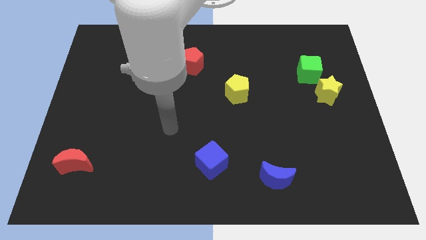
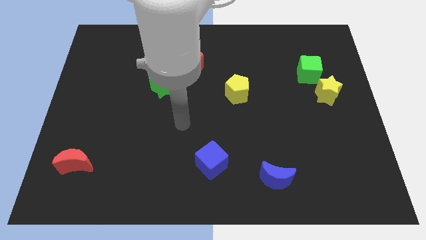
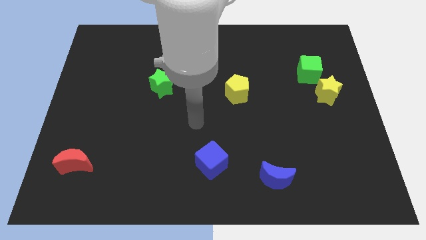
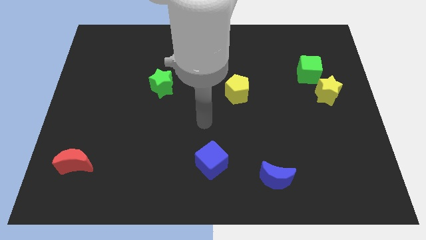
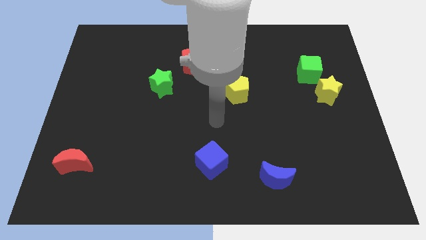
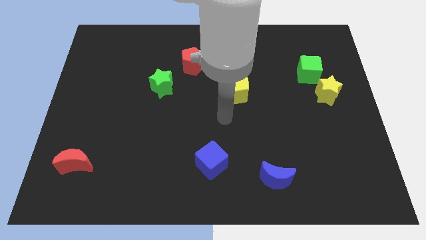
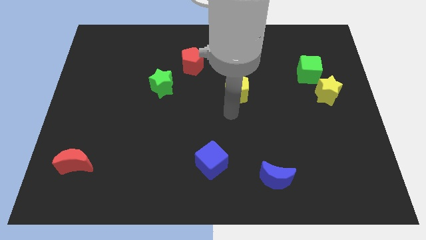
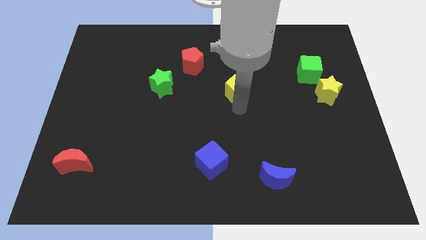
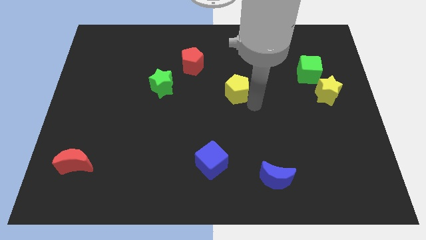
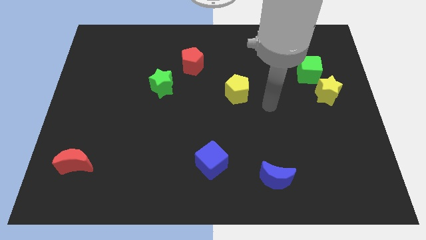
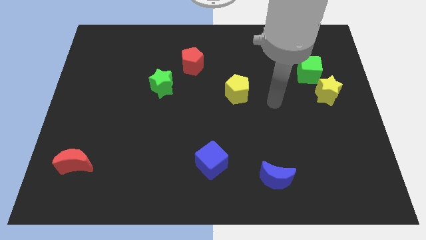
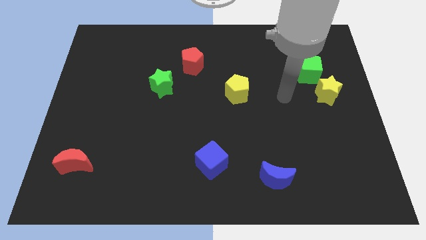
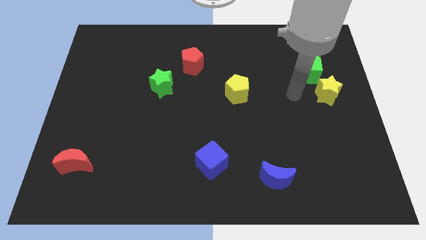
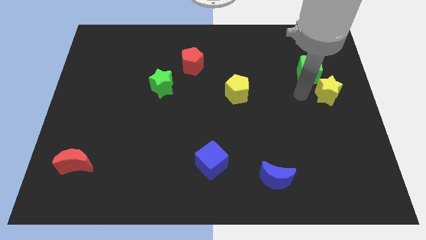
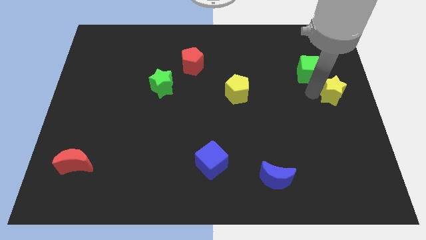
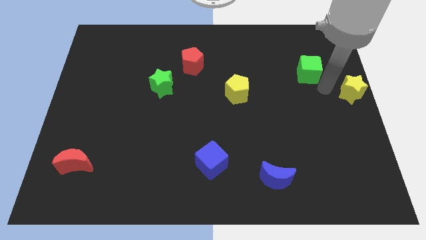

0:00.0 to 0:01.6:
move the green cube away from the yellow star

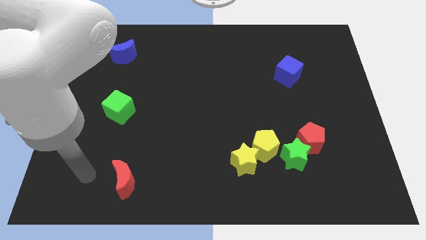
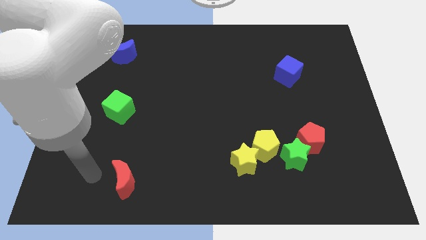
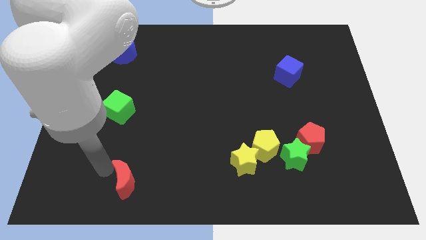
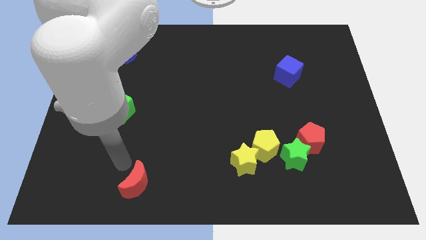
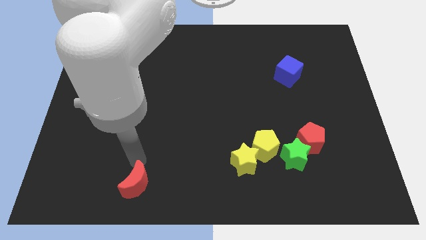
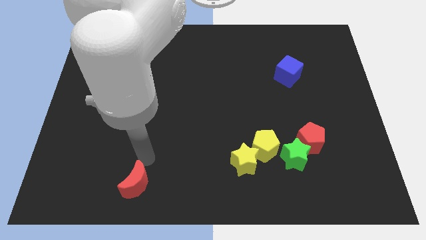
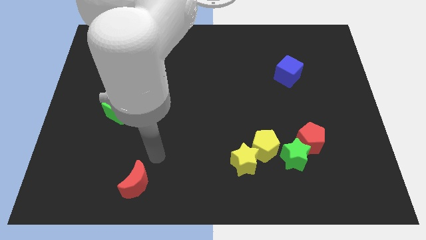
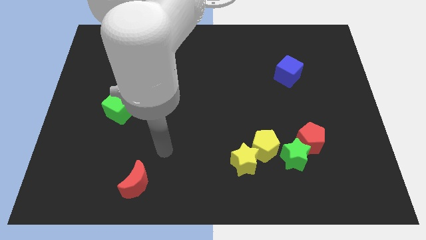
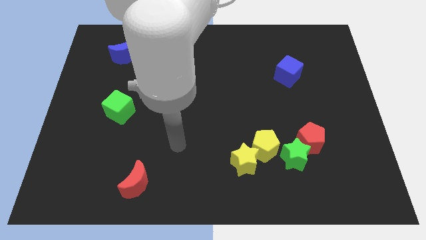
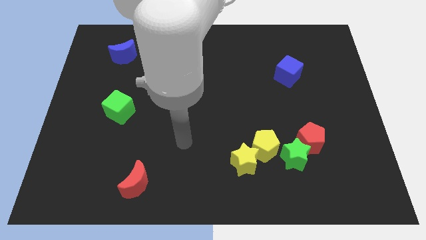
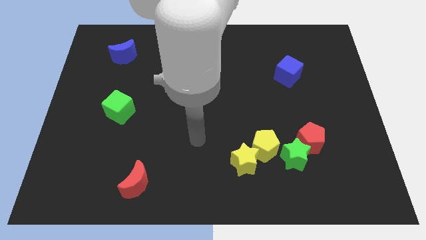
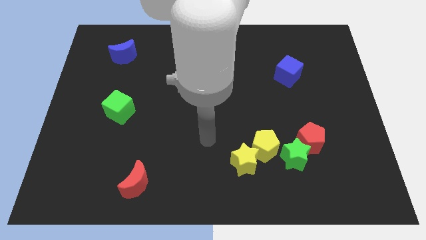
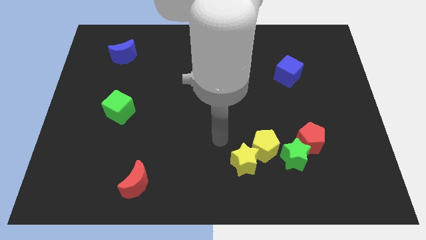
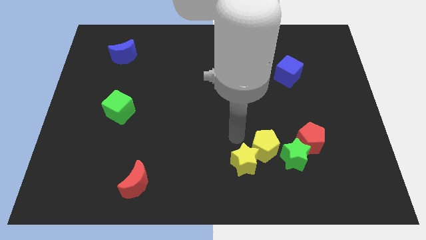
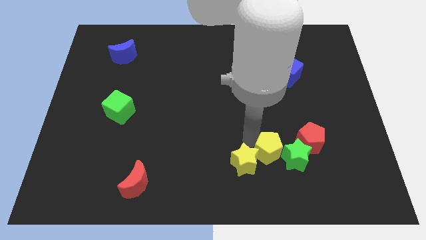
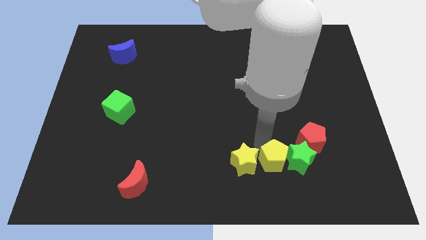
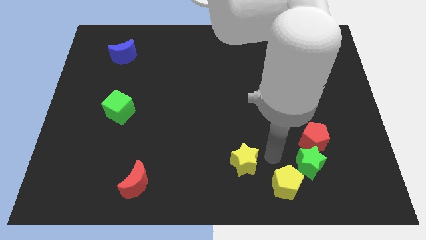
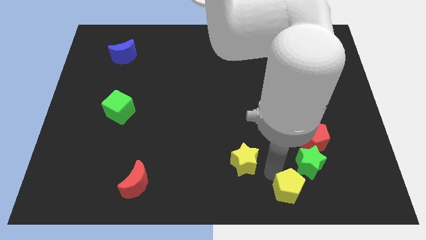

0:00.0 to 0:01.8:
move the yellow star away from the yellow pentagon

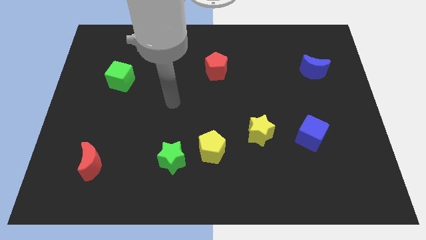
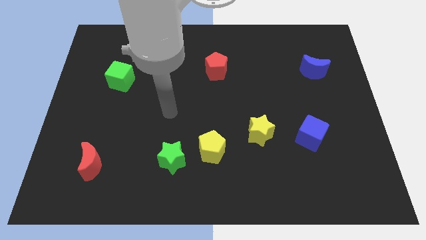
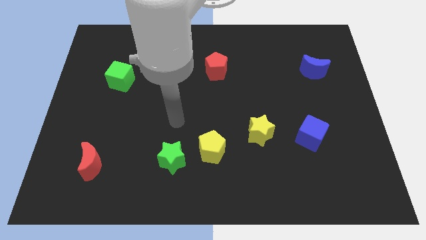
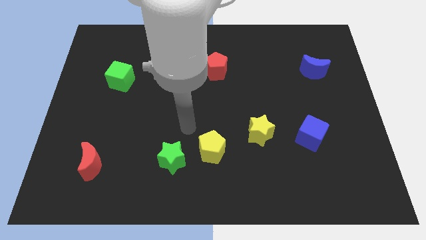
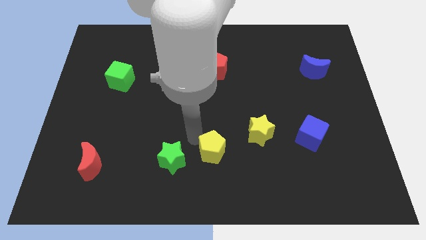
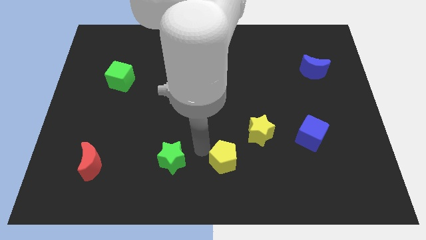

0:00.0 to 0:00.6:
move the green star away from the yellow pentagon

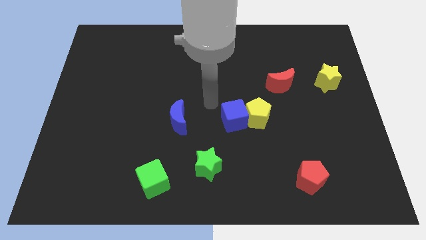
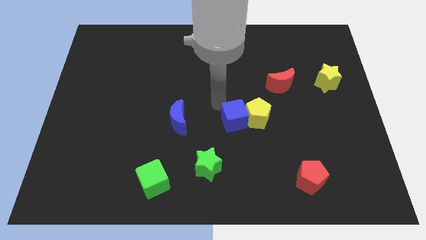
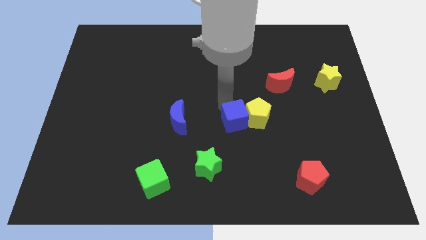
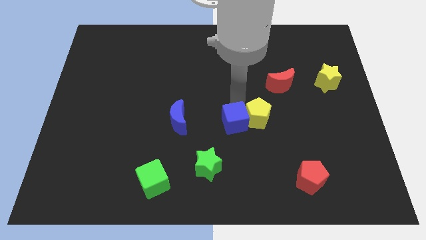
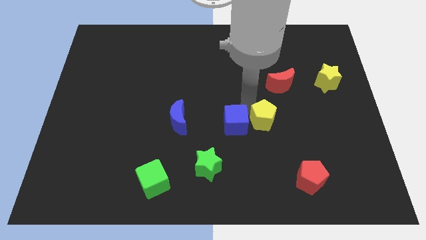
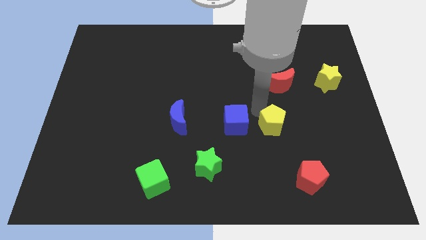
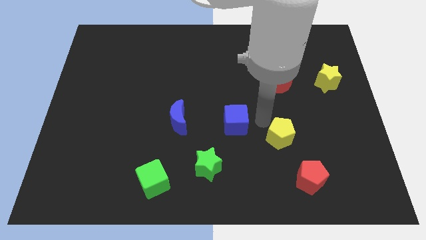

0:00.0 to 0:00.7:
move the blue cube away from the yellow pentagon

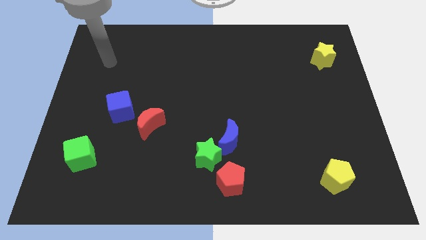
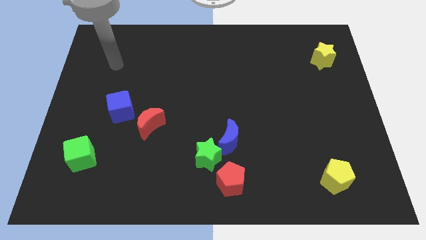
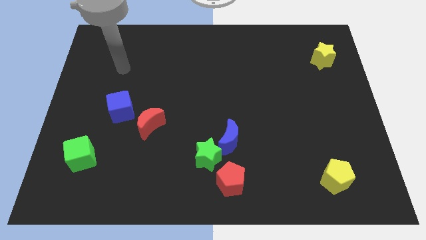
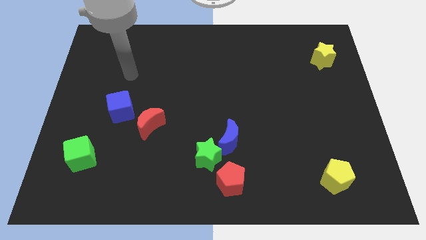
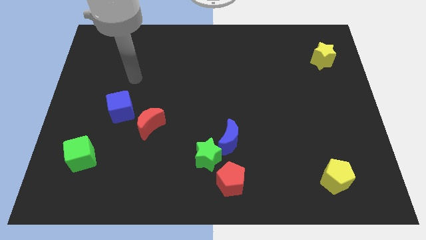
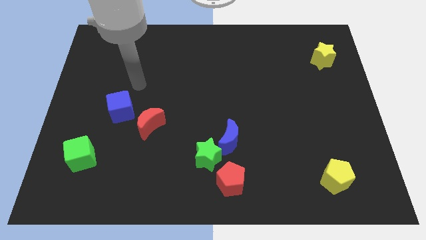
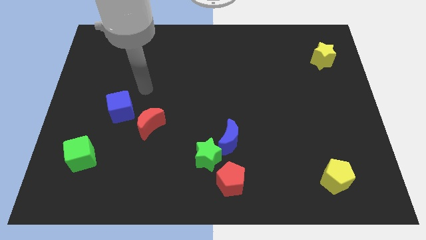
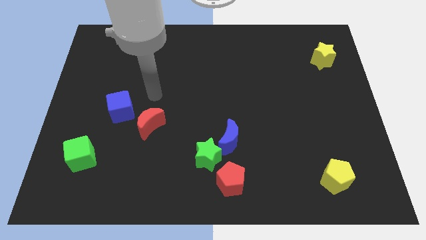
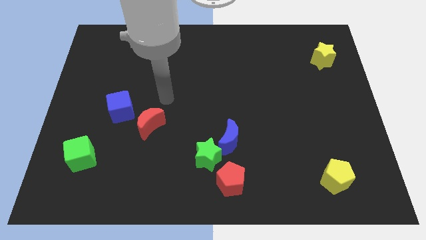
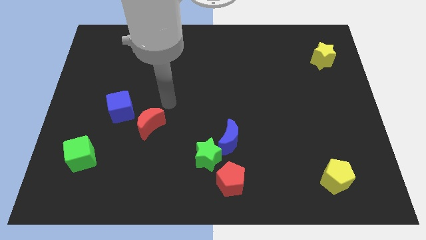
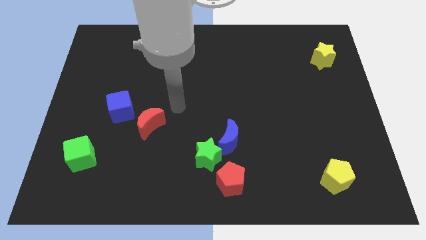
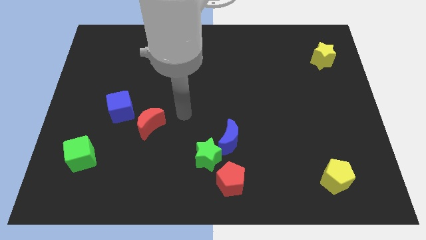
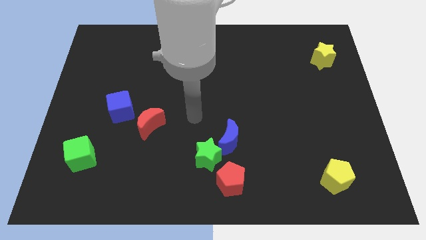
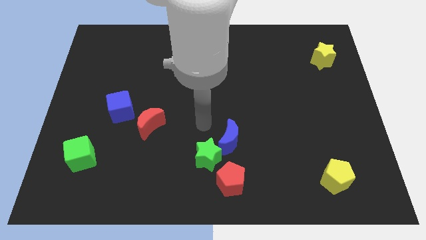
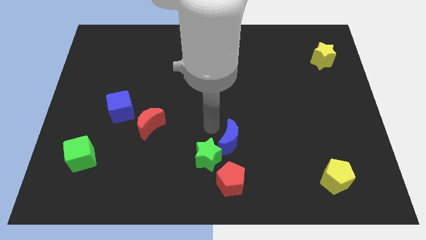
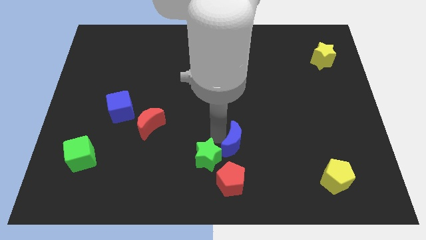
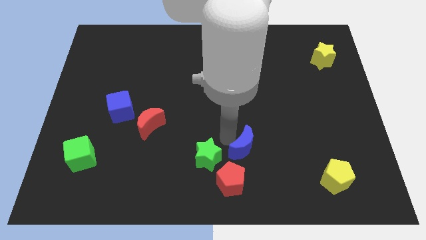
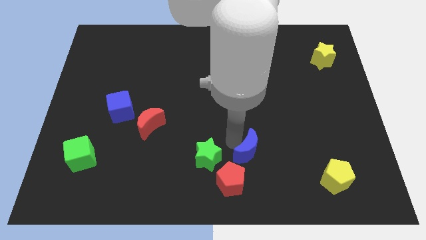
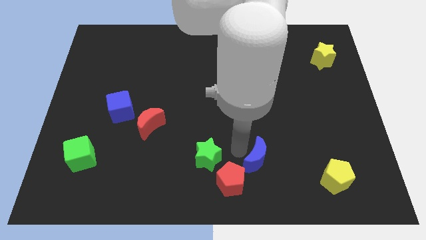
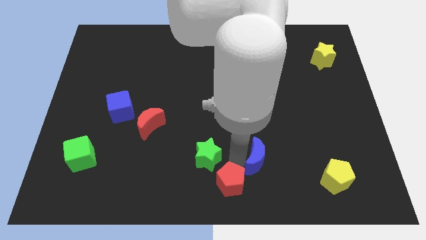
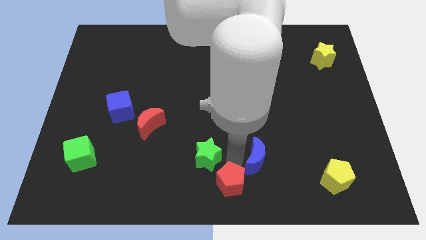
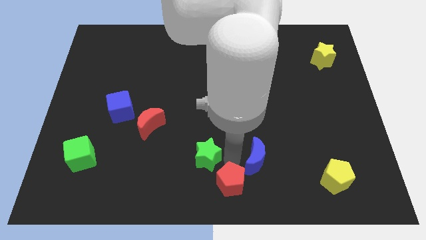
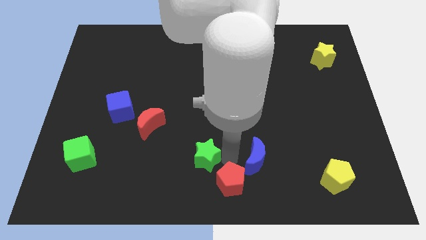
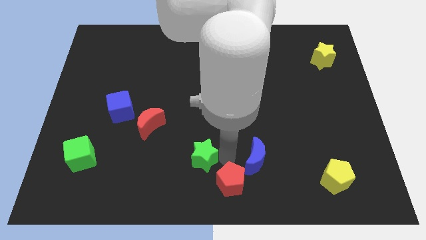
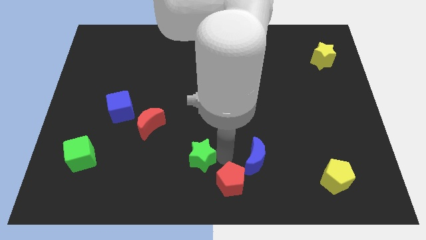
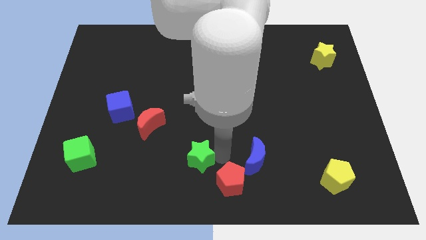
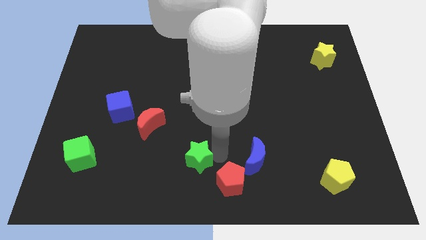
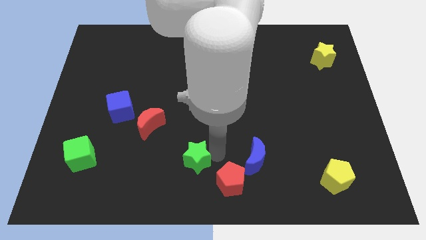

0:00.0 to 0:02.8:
move the green star away from the blue moon and red pentagon

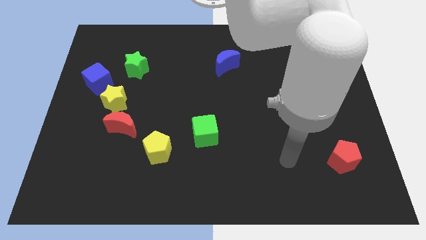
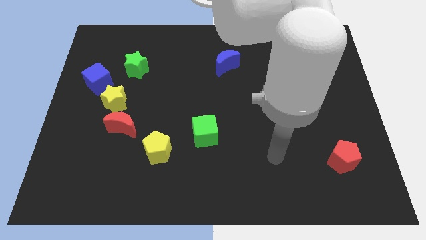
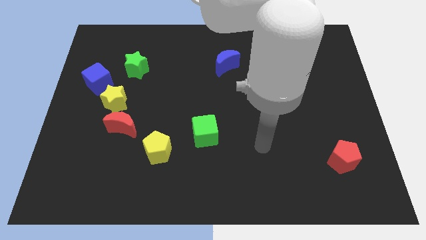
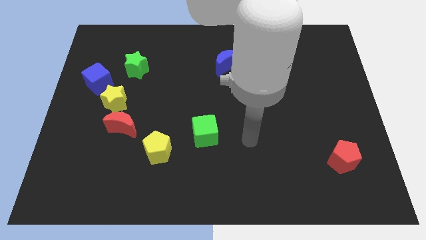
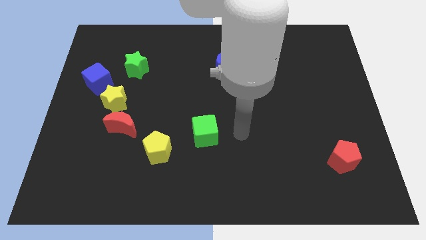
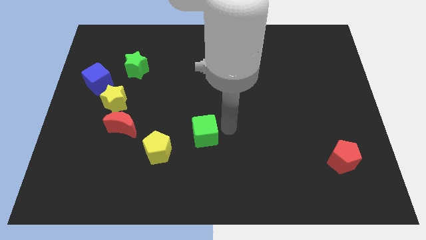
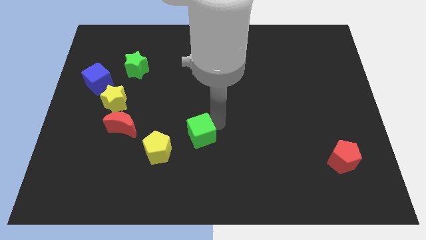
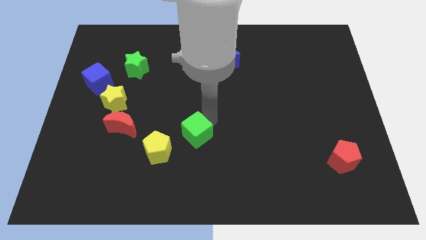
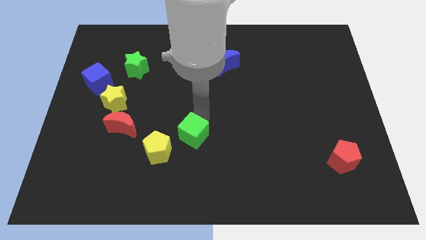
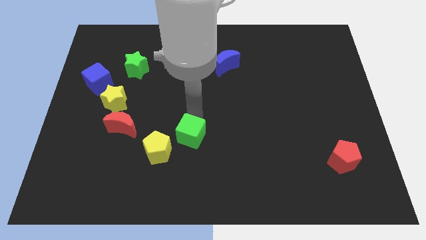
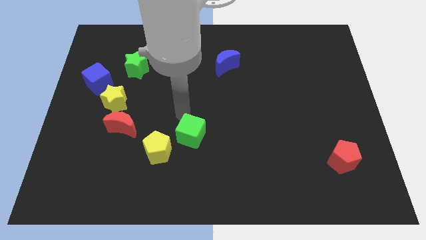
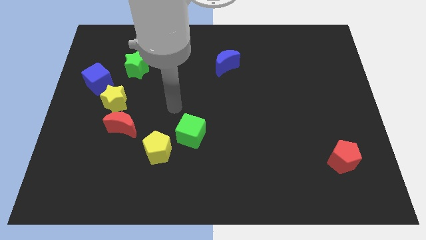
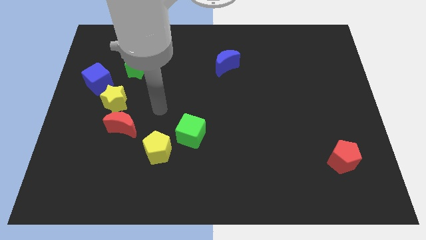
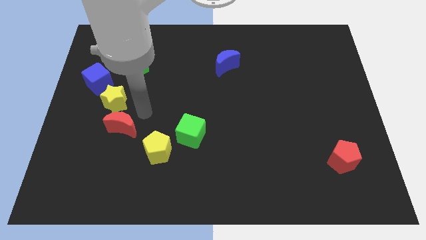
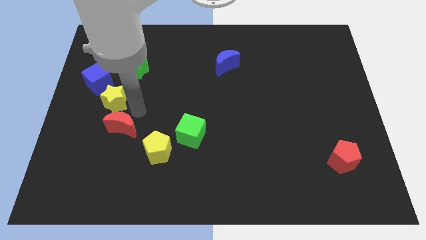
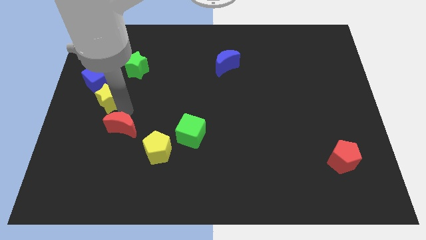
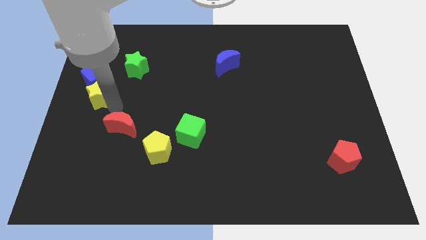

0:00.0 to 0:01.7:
pull the red moon apart from the yellow star

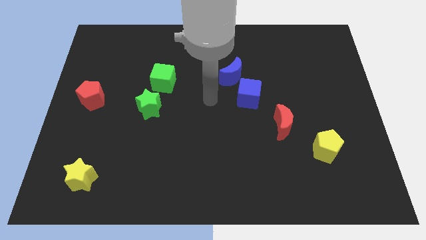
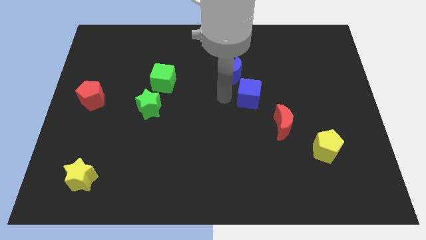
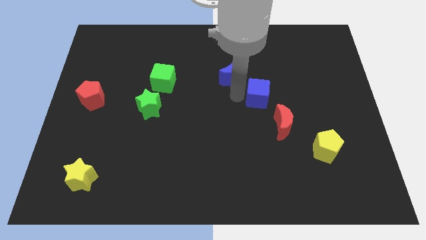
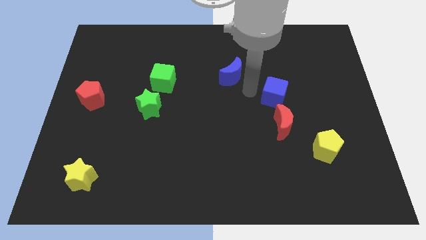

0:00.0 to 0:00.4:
pull the blue moon apart from the blue cube
